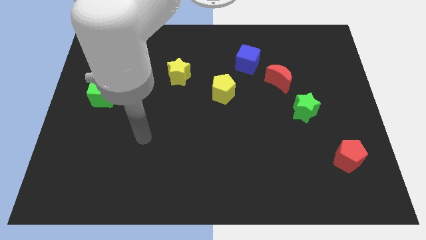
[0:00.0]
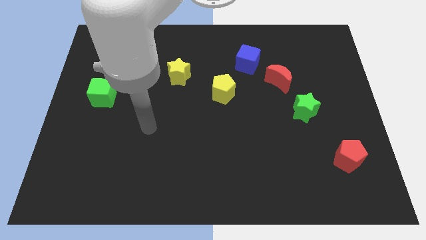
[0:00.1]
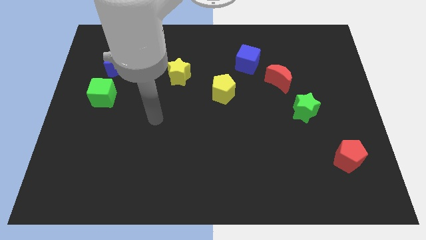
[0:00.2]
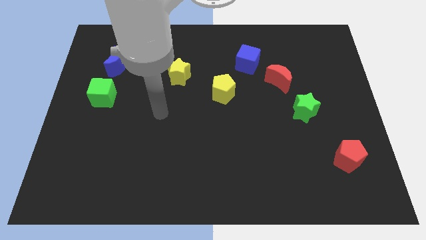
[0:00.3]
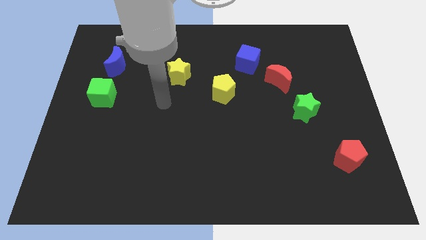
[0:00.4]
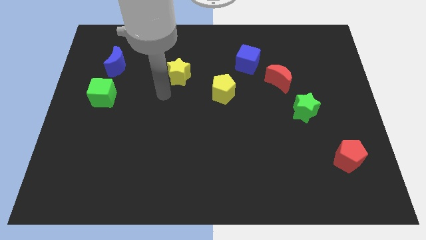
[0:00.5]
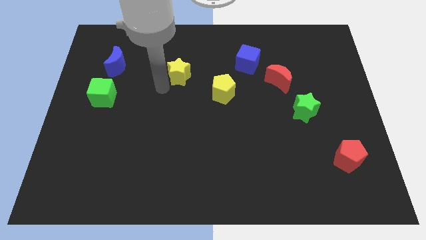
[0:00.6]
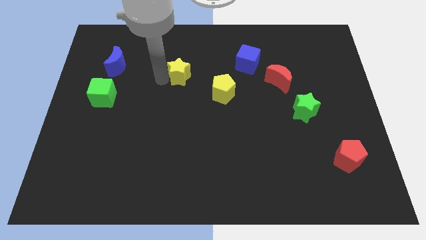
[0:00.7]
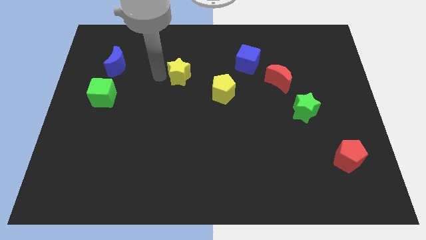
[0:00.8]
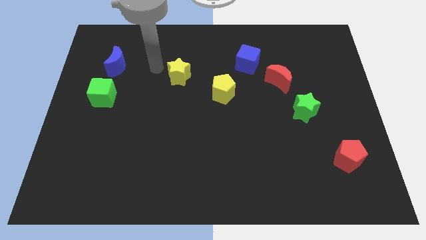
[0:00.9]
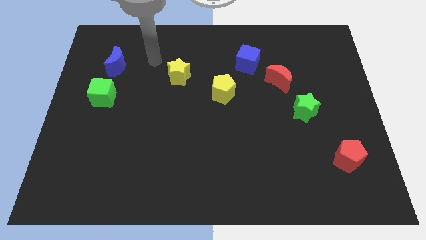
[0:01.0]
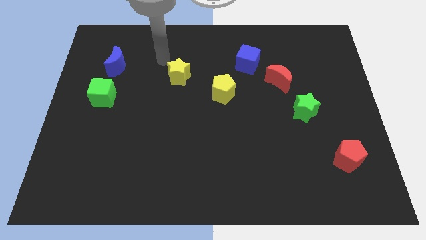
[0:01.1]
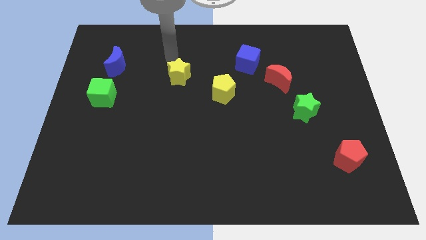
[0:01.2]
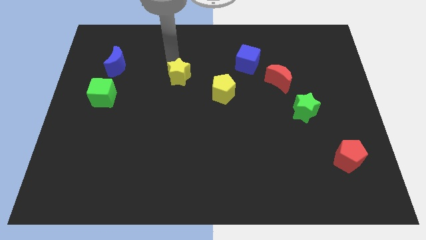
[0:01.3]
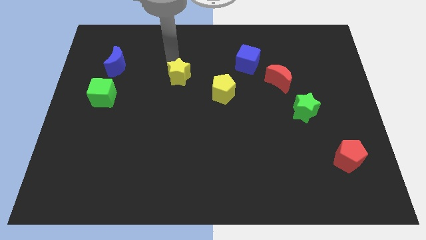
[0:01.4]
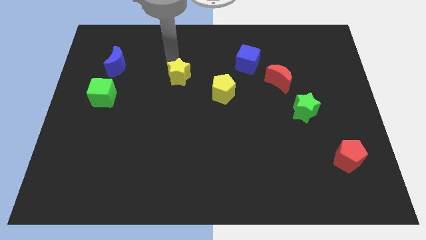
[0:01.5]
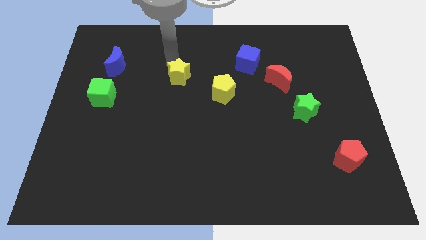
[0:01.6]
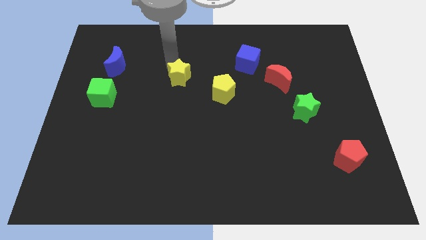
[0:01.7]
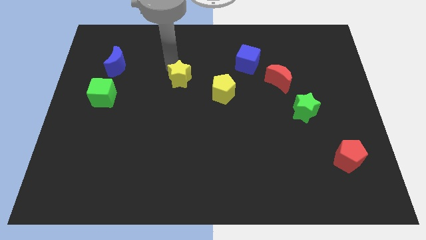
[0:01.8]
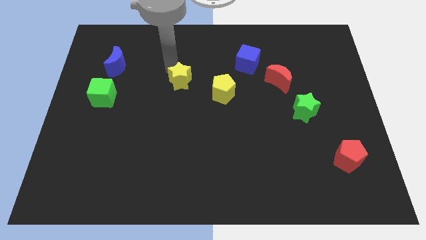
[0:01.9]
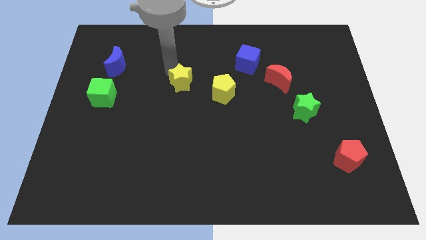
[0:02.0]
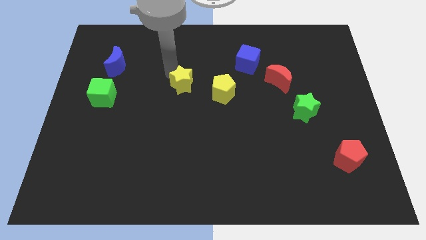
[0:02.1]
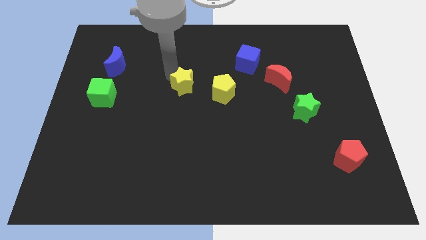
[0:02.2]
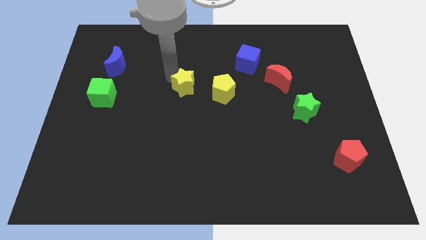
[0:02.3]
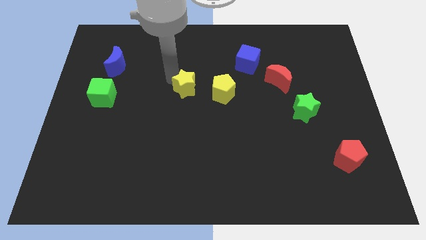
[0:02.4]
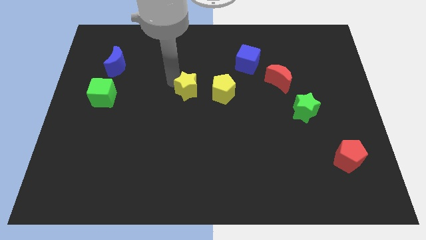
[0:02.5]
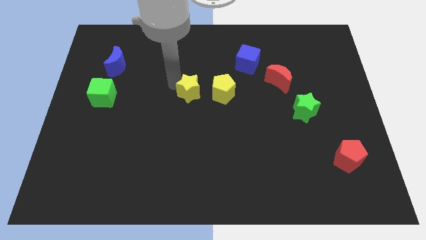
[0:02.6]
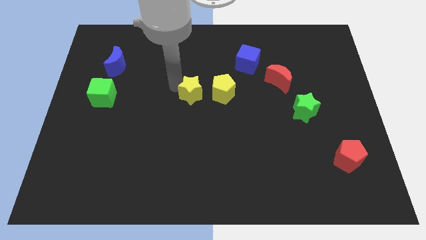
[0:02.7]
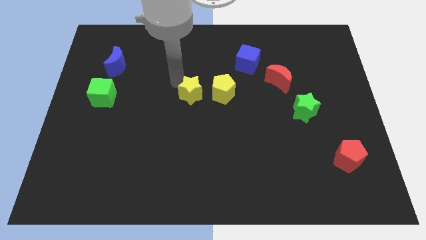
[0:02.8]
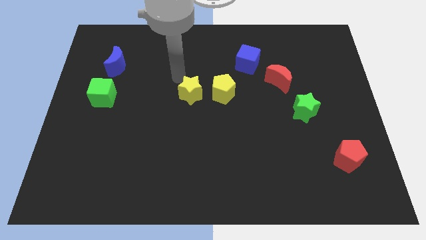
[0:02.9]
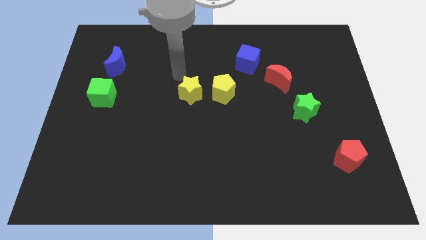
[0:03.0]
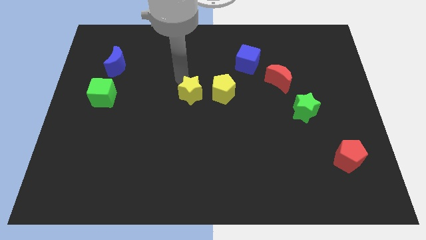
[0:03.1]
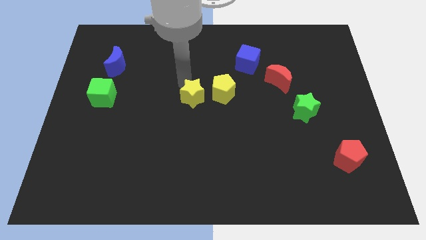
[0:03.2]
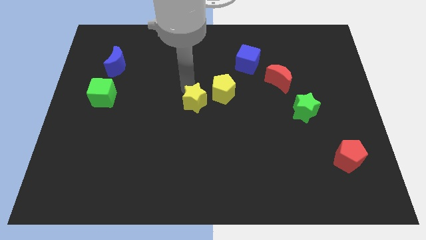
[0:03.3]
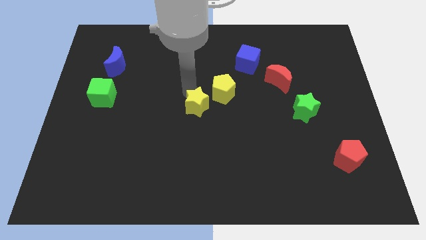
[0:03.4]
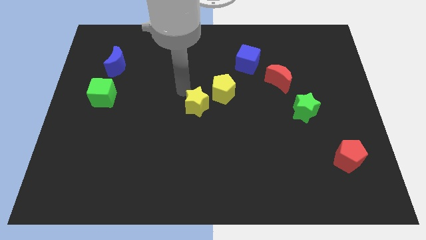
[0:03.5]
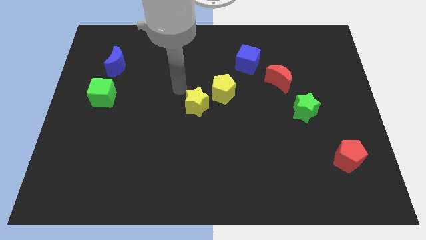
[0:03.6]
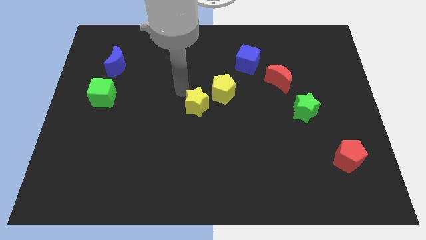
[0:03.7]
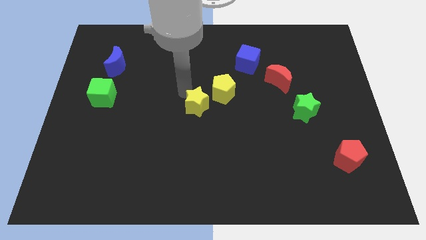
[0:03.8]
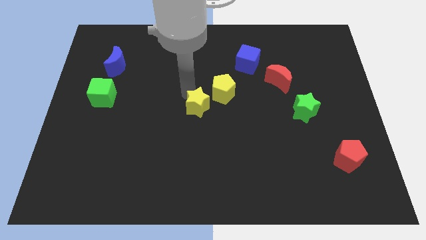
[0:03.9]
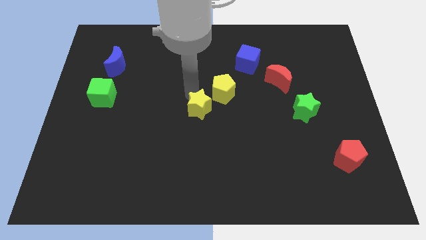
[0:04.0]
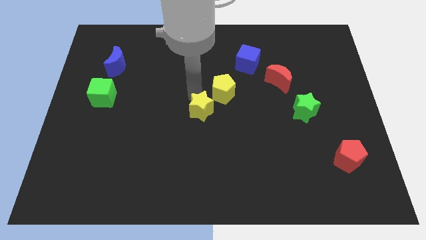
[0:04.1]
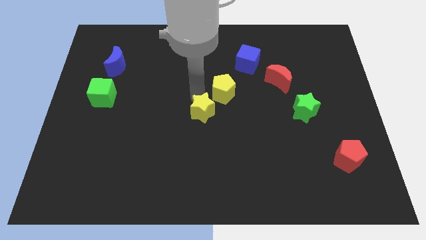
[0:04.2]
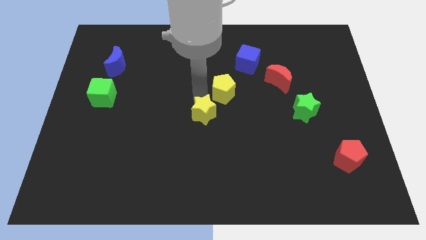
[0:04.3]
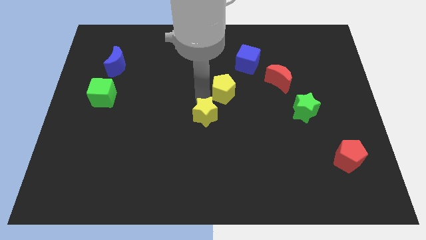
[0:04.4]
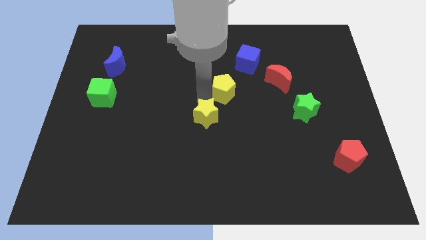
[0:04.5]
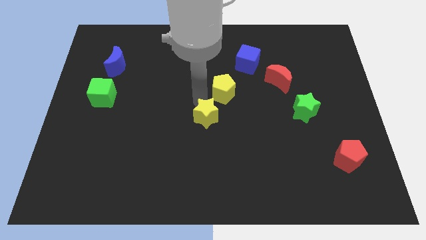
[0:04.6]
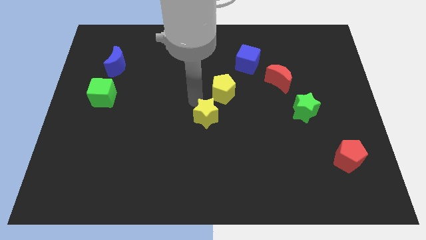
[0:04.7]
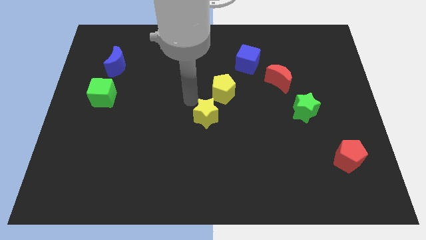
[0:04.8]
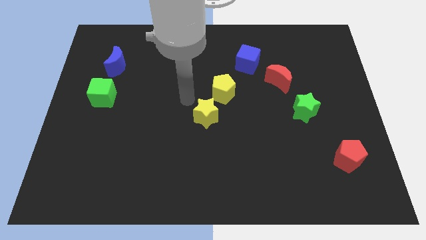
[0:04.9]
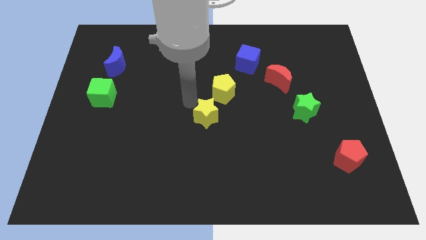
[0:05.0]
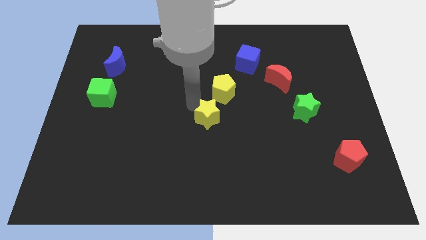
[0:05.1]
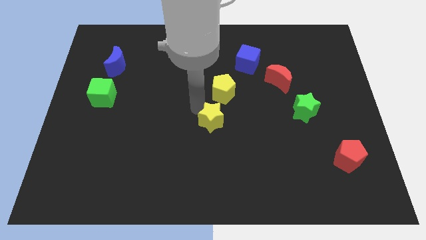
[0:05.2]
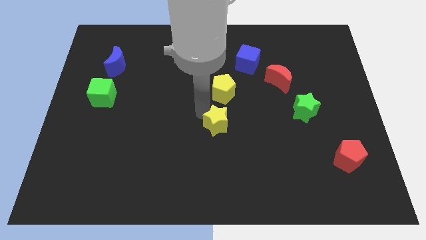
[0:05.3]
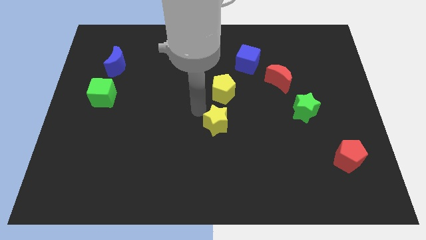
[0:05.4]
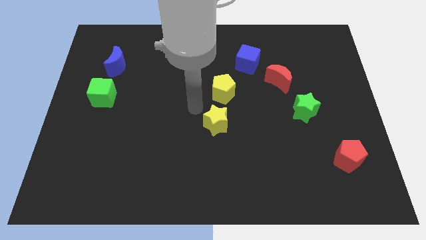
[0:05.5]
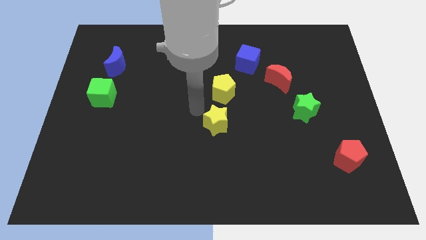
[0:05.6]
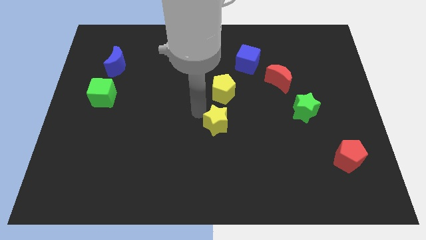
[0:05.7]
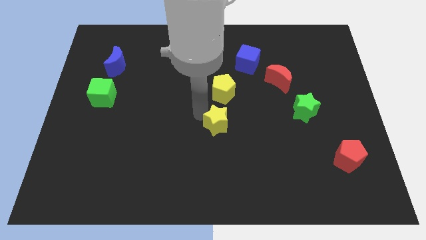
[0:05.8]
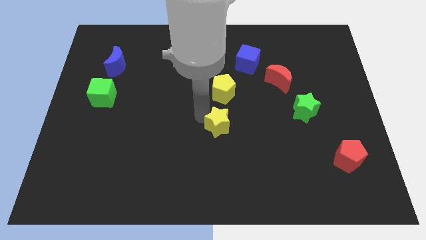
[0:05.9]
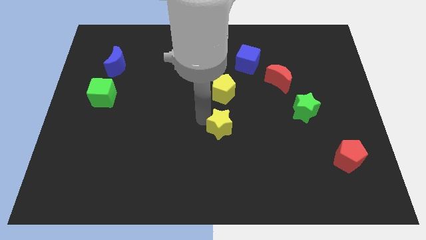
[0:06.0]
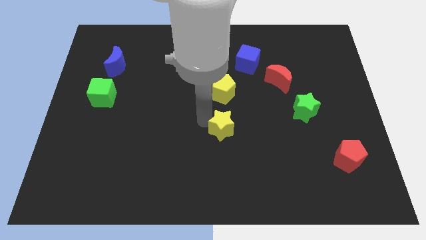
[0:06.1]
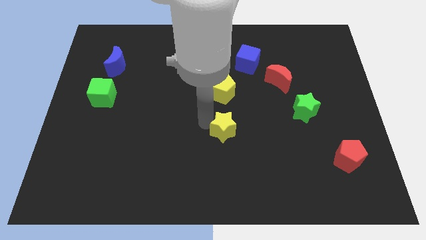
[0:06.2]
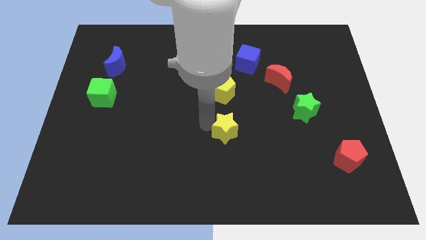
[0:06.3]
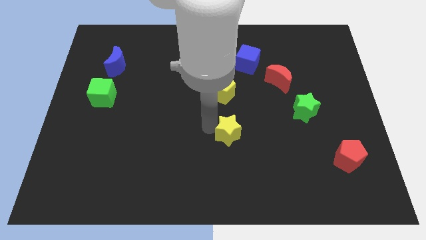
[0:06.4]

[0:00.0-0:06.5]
move the yellow star down and then to the right

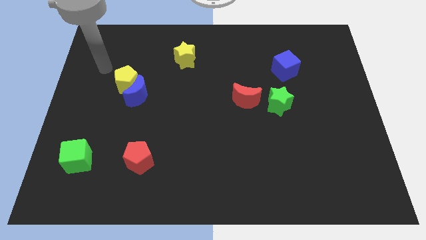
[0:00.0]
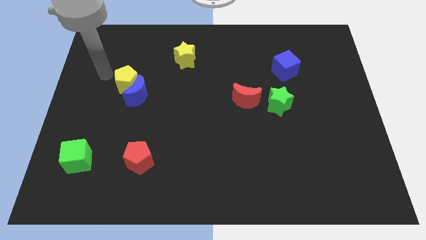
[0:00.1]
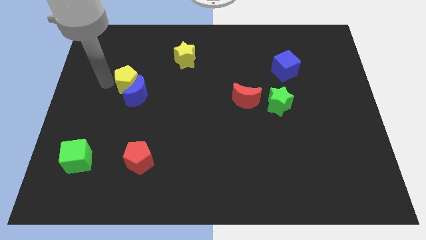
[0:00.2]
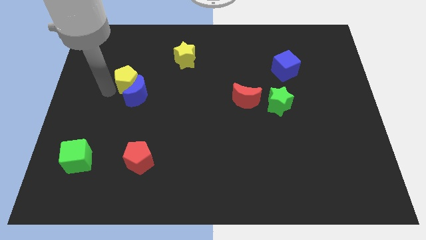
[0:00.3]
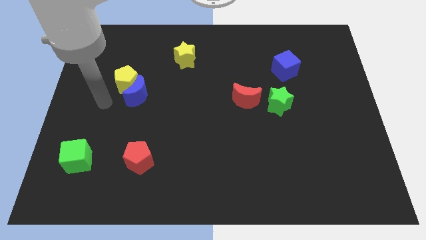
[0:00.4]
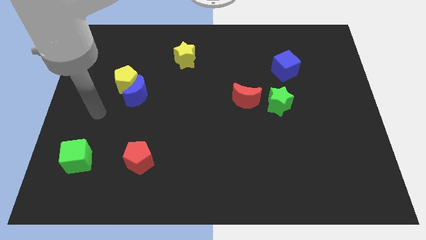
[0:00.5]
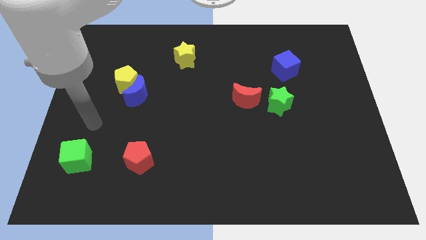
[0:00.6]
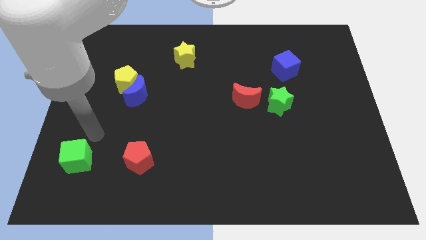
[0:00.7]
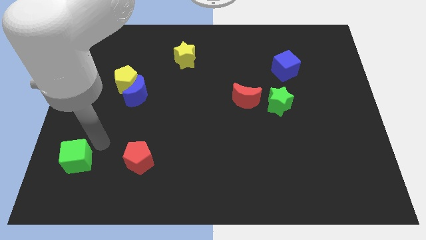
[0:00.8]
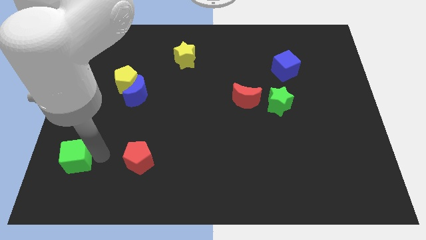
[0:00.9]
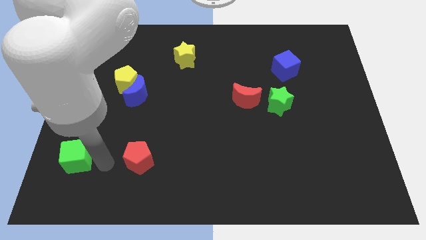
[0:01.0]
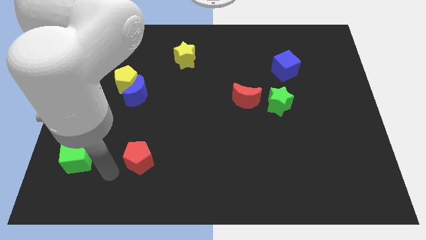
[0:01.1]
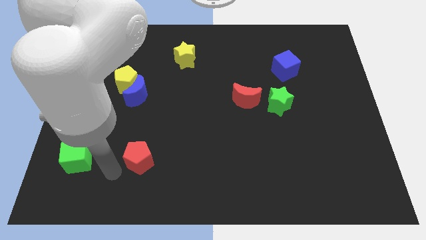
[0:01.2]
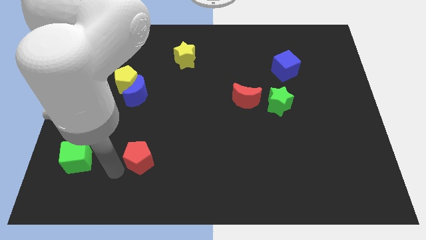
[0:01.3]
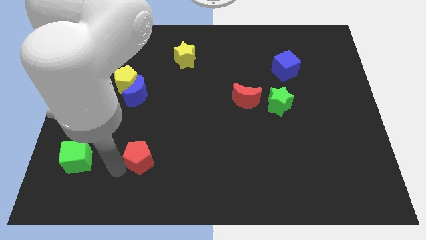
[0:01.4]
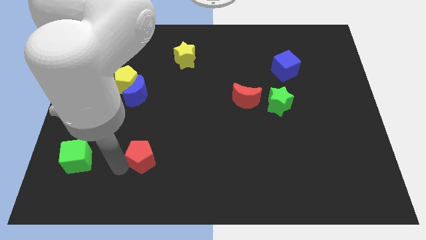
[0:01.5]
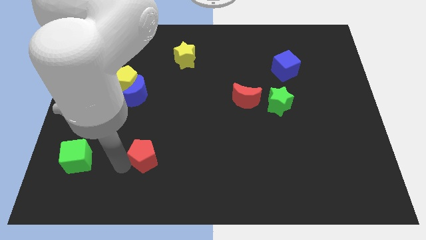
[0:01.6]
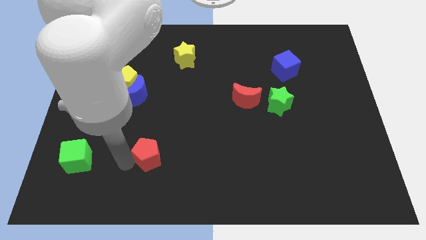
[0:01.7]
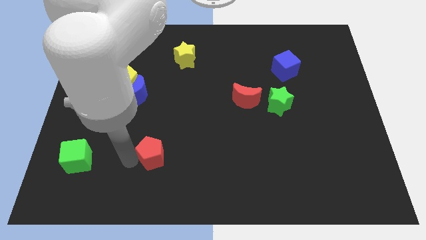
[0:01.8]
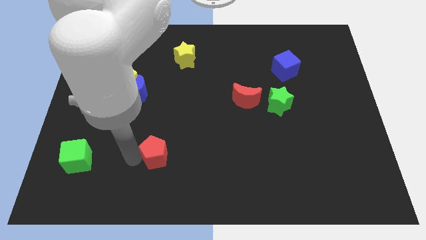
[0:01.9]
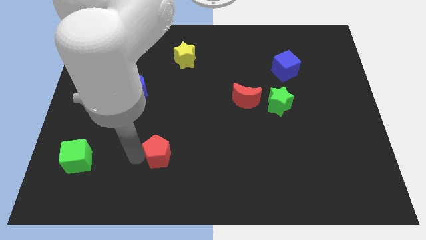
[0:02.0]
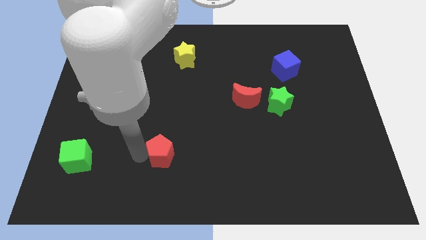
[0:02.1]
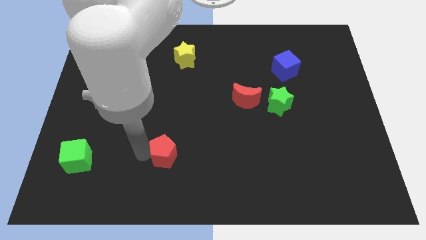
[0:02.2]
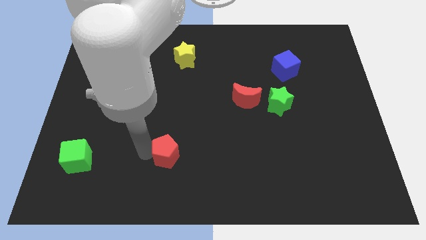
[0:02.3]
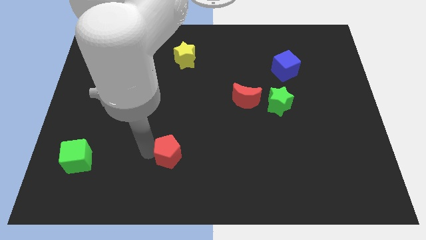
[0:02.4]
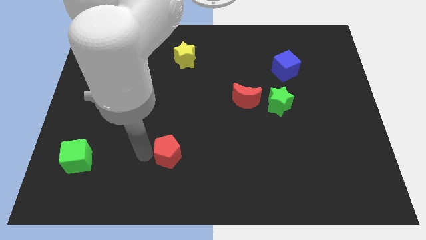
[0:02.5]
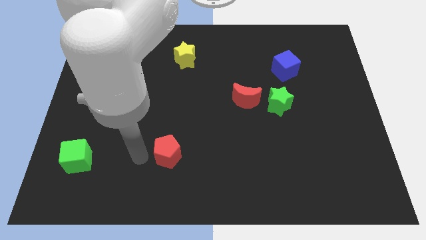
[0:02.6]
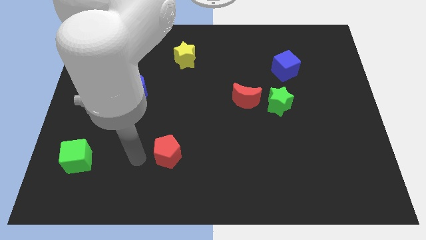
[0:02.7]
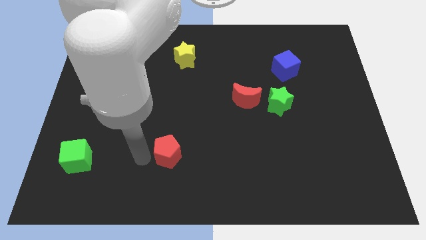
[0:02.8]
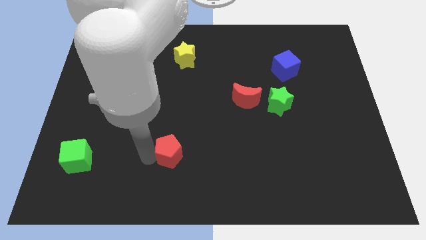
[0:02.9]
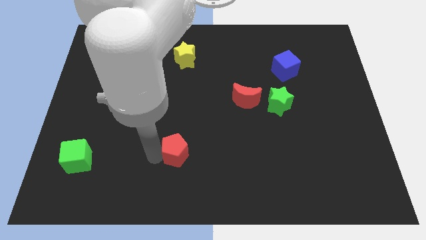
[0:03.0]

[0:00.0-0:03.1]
push the red pentagon to the right a little
